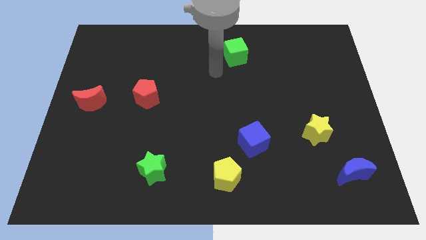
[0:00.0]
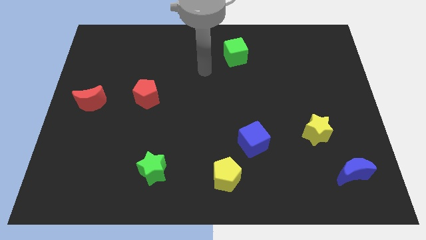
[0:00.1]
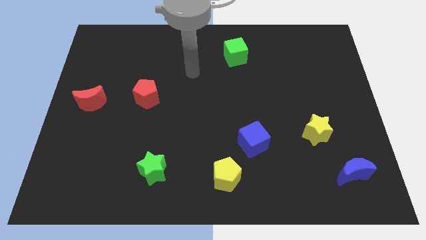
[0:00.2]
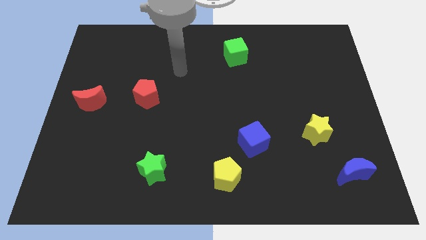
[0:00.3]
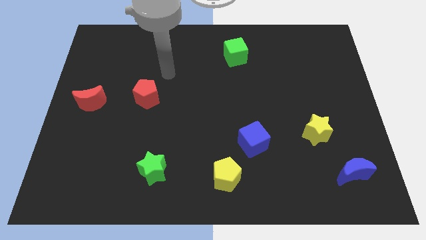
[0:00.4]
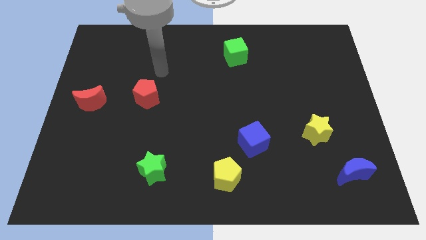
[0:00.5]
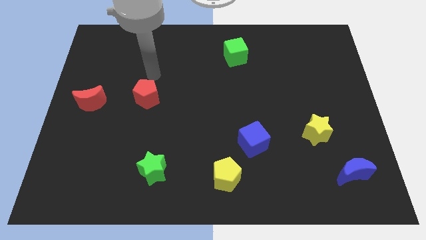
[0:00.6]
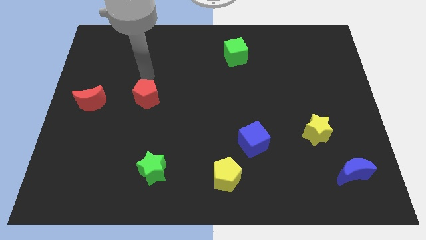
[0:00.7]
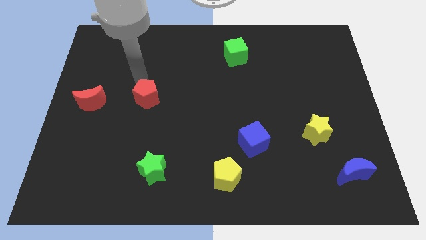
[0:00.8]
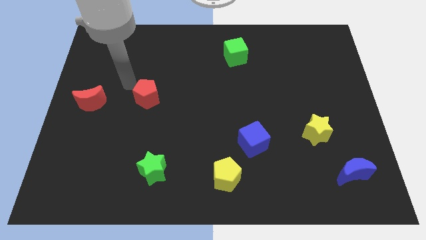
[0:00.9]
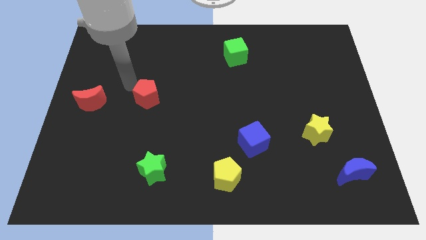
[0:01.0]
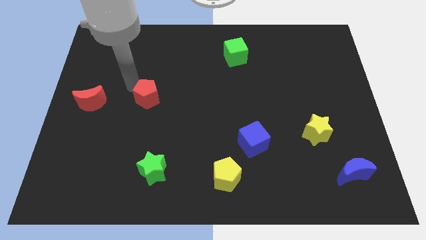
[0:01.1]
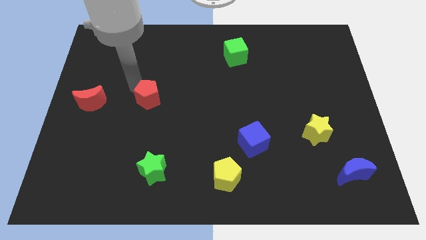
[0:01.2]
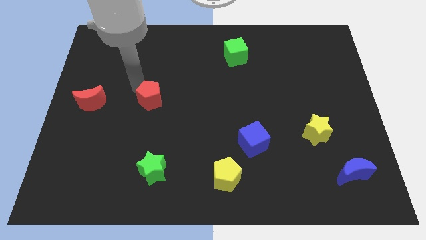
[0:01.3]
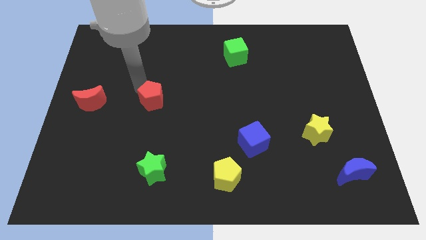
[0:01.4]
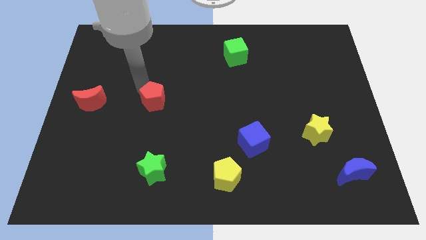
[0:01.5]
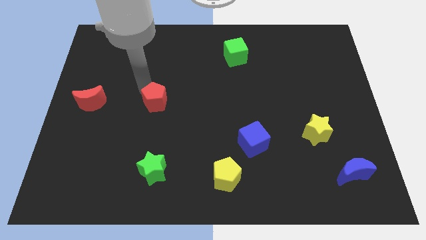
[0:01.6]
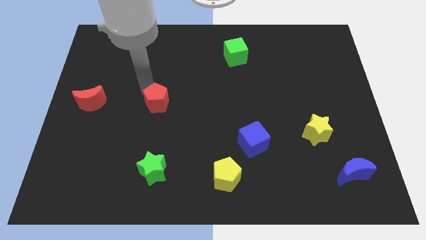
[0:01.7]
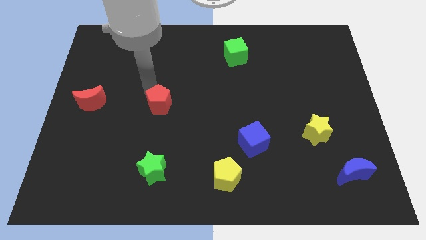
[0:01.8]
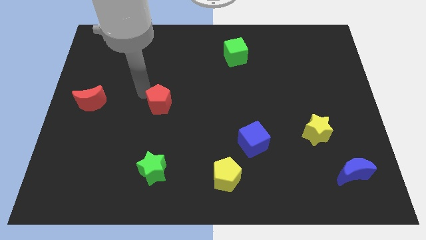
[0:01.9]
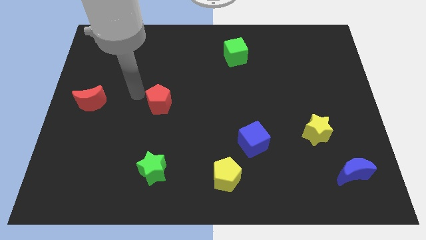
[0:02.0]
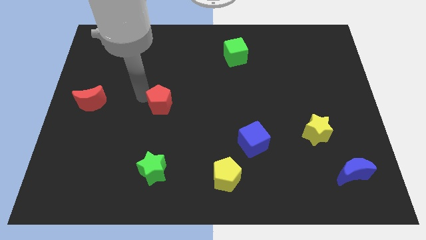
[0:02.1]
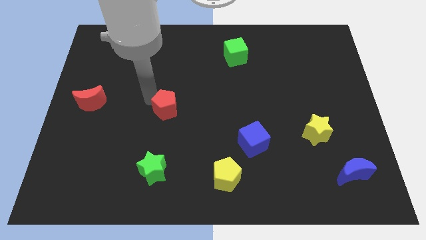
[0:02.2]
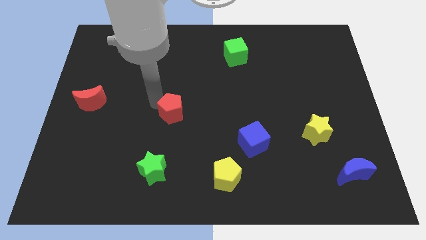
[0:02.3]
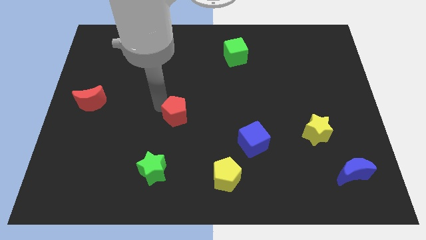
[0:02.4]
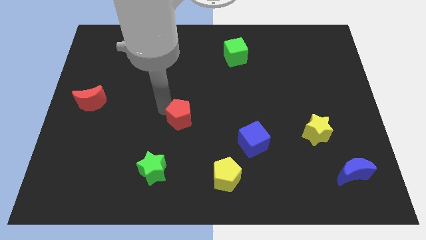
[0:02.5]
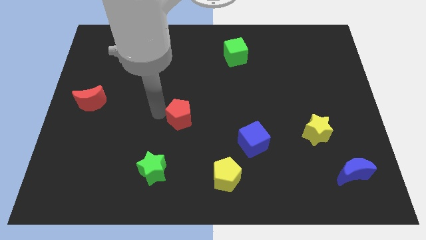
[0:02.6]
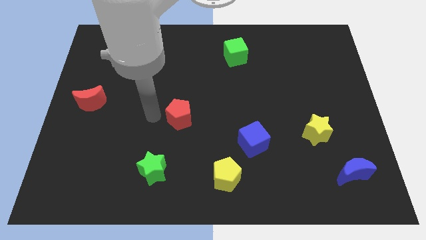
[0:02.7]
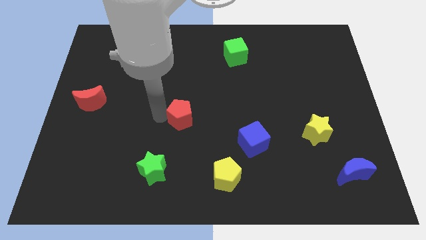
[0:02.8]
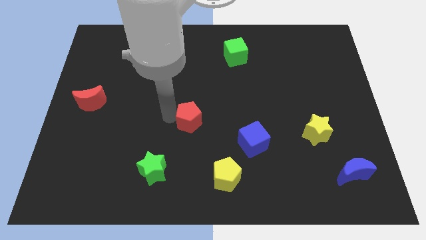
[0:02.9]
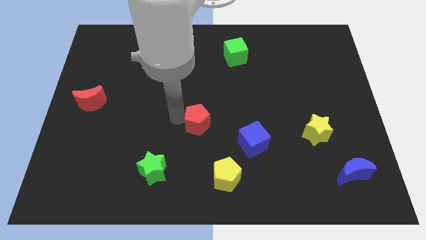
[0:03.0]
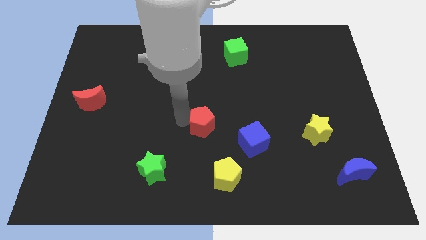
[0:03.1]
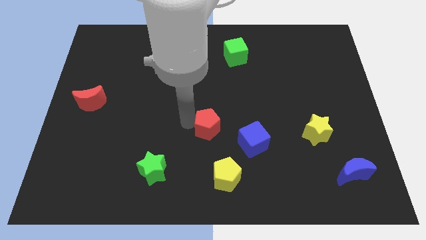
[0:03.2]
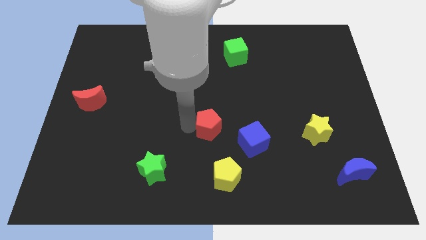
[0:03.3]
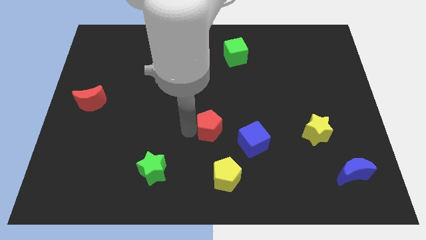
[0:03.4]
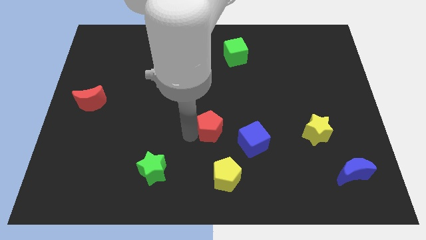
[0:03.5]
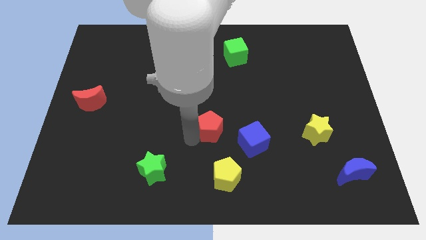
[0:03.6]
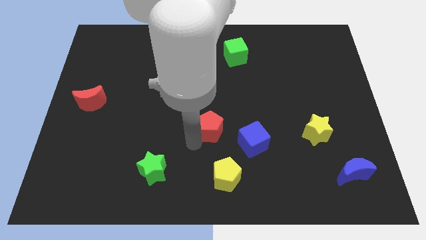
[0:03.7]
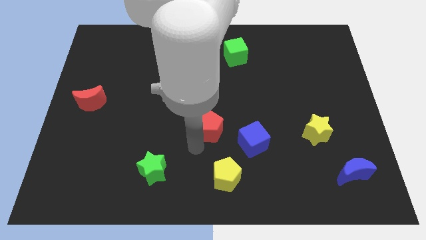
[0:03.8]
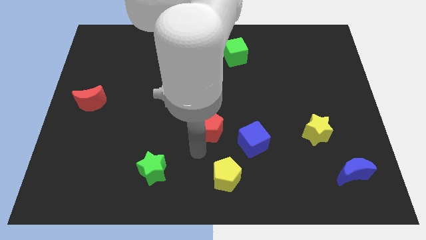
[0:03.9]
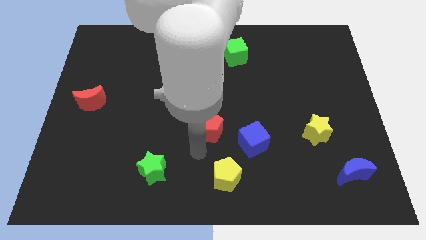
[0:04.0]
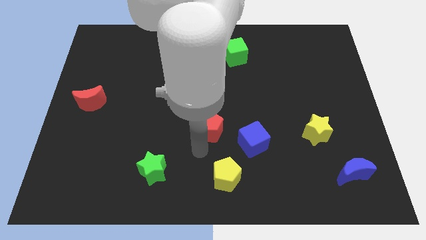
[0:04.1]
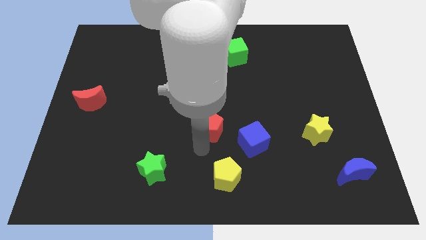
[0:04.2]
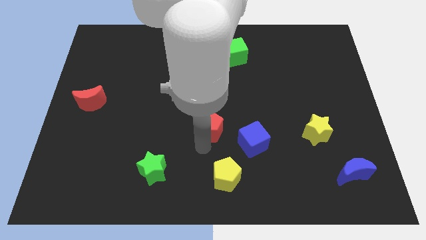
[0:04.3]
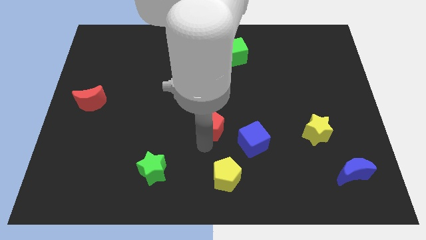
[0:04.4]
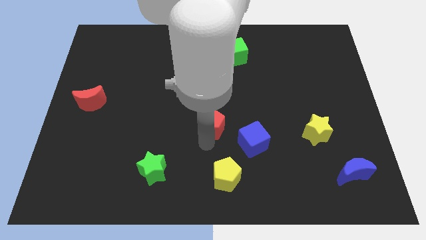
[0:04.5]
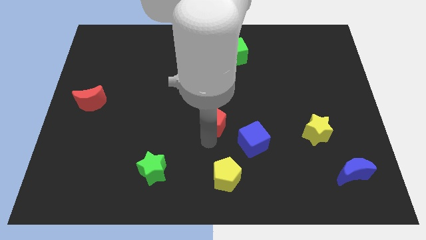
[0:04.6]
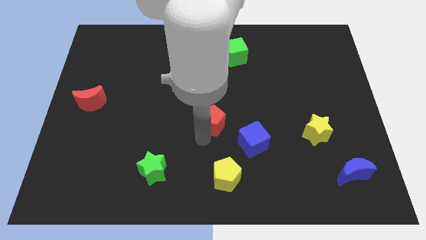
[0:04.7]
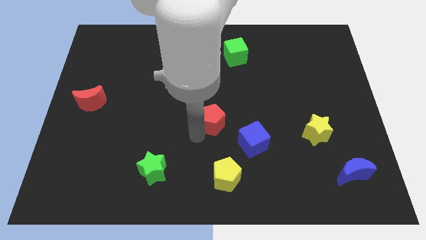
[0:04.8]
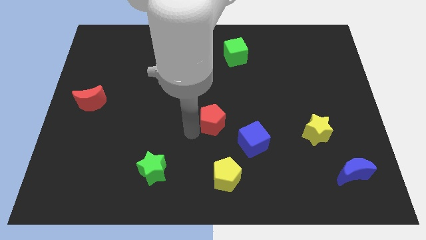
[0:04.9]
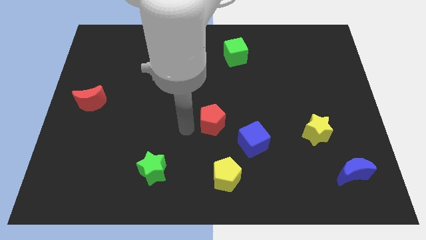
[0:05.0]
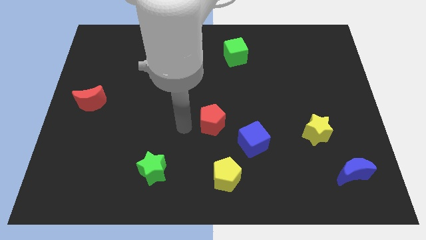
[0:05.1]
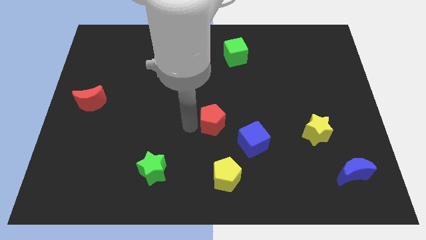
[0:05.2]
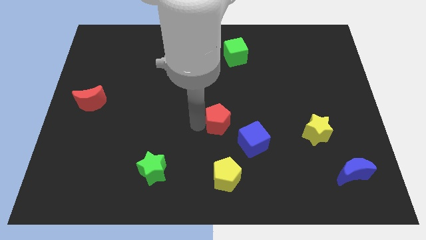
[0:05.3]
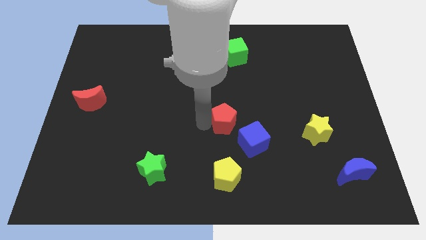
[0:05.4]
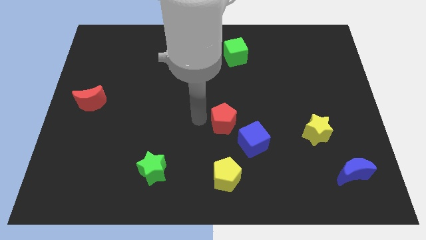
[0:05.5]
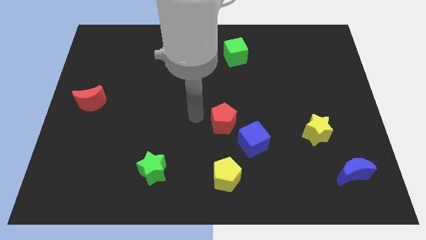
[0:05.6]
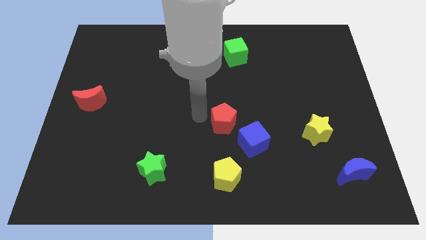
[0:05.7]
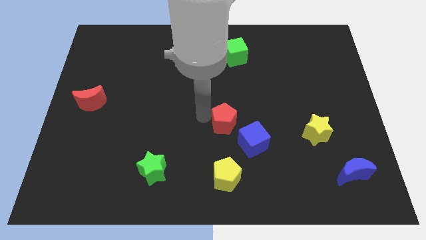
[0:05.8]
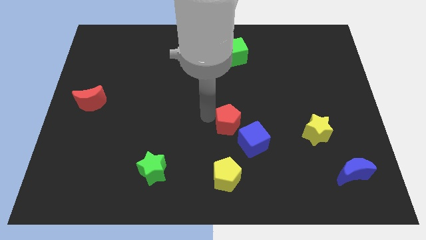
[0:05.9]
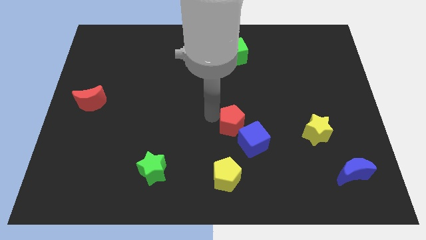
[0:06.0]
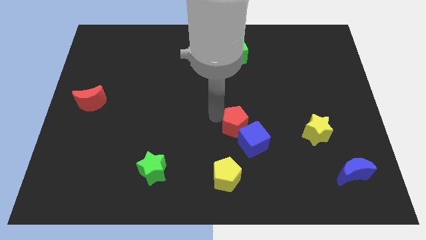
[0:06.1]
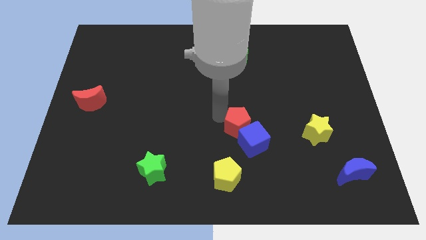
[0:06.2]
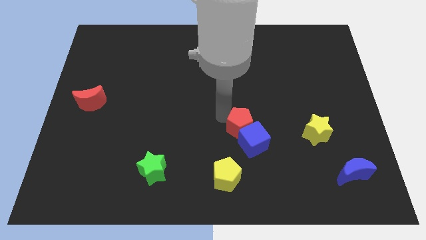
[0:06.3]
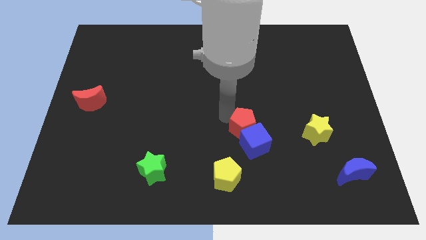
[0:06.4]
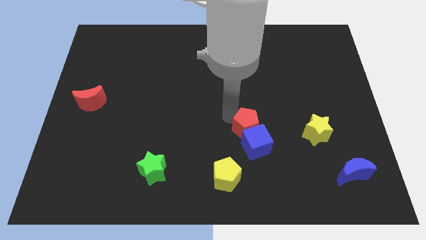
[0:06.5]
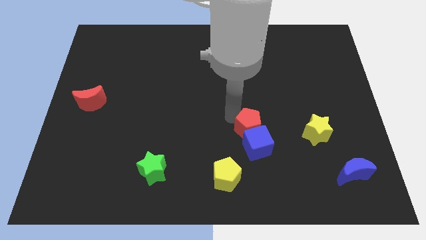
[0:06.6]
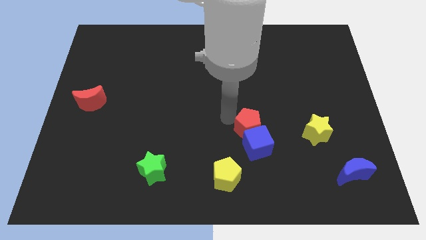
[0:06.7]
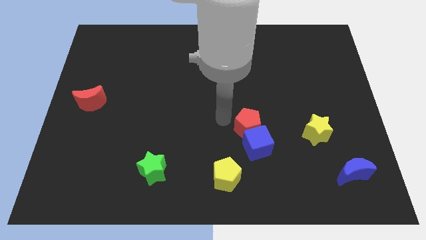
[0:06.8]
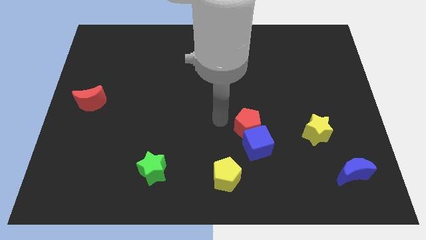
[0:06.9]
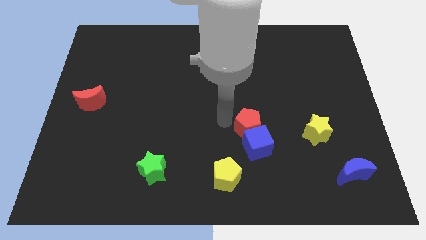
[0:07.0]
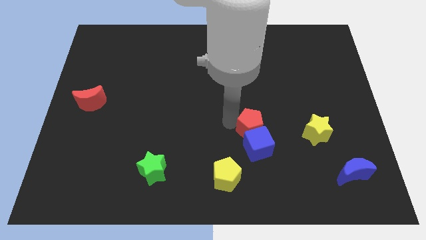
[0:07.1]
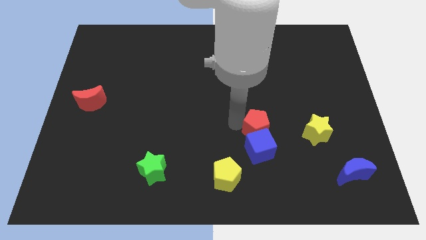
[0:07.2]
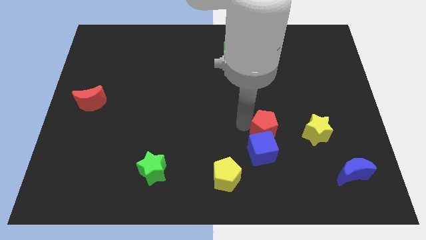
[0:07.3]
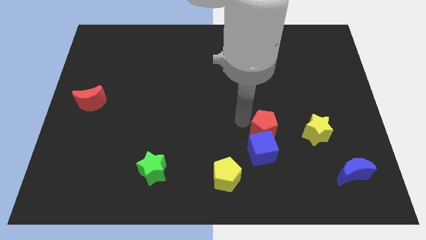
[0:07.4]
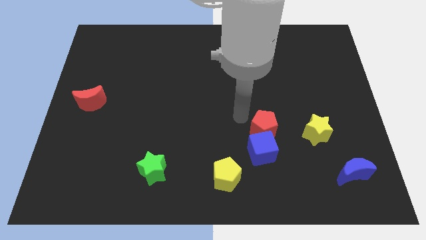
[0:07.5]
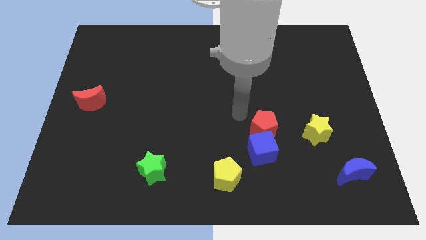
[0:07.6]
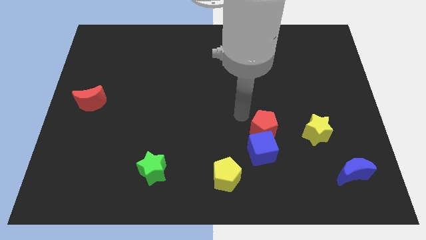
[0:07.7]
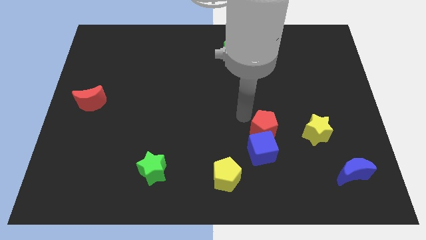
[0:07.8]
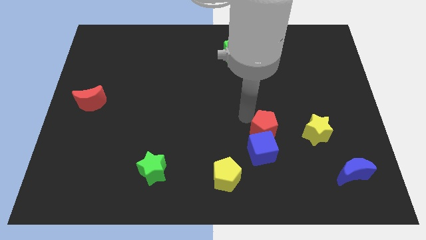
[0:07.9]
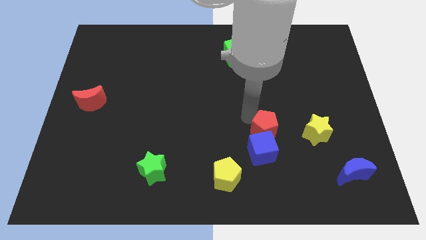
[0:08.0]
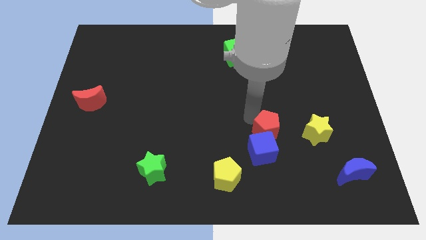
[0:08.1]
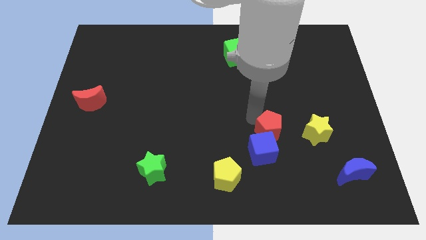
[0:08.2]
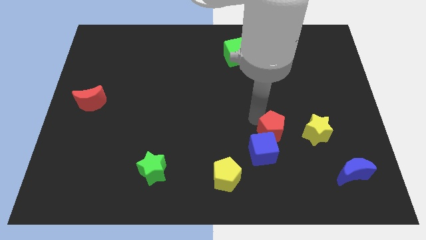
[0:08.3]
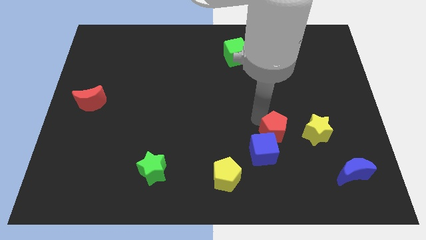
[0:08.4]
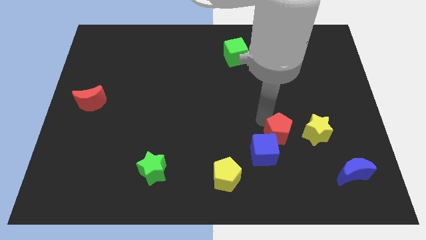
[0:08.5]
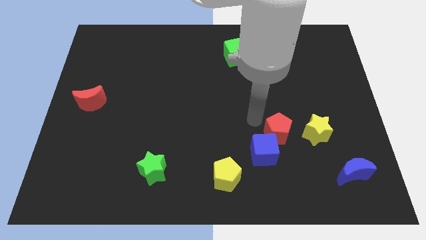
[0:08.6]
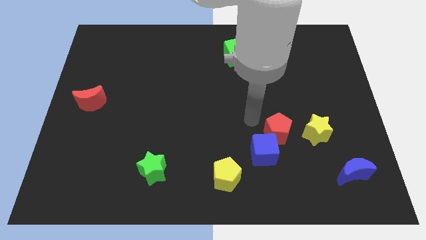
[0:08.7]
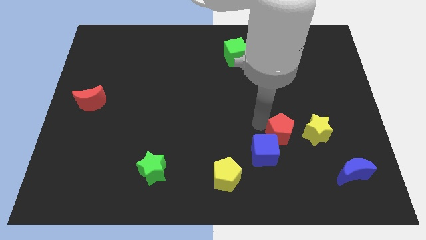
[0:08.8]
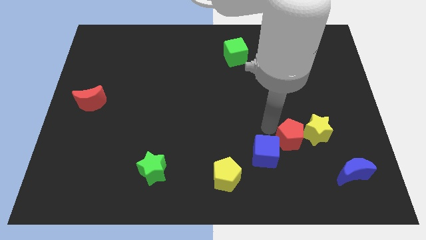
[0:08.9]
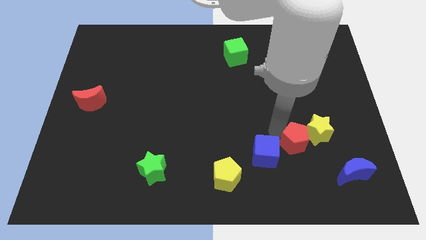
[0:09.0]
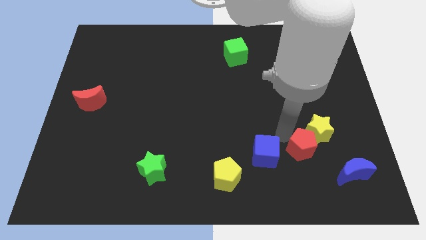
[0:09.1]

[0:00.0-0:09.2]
put the red pentagon to the top left of the blue moon
